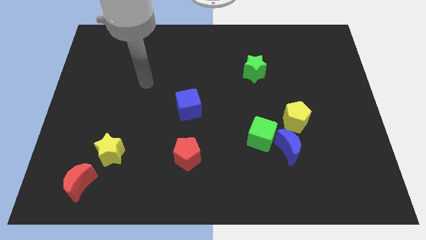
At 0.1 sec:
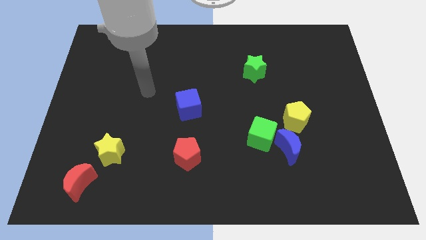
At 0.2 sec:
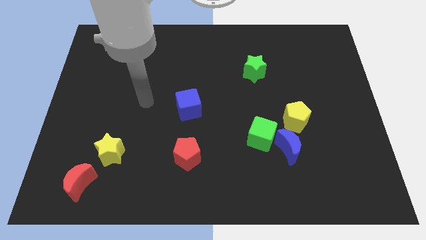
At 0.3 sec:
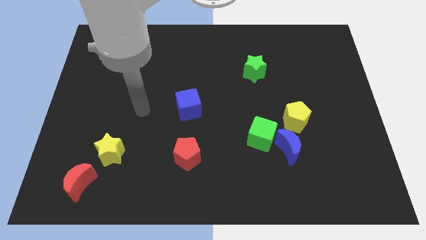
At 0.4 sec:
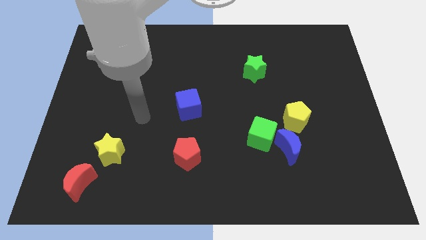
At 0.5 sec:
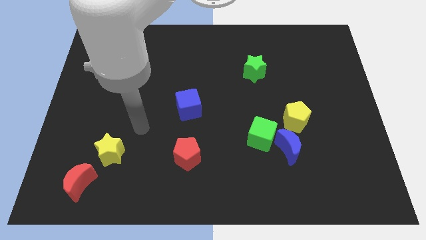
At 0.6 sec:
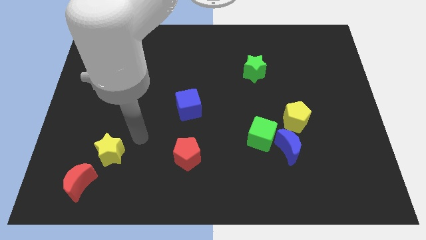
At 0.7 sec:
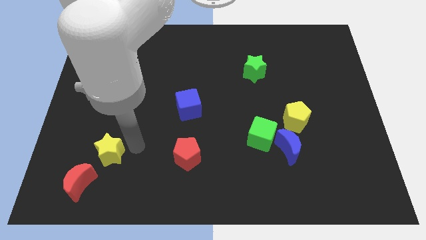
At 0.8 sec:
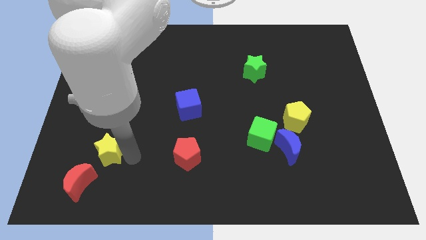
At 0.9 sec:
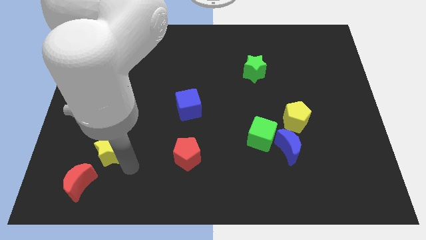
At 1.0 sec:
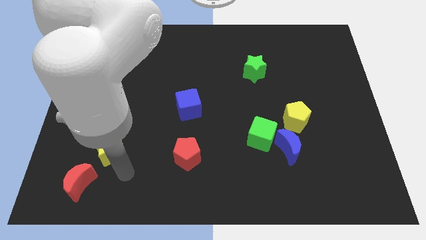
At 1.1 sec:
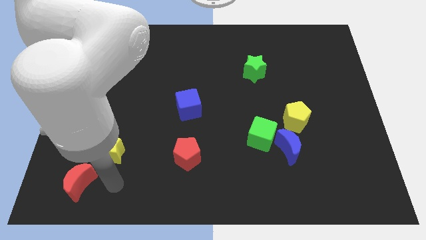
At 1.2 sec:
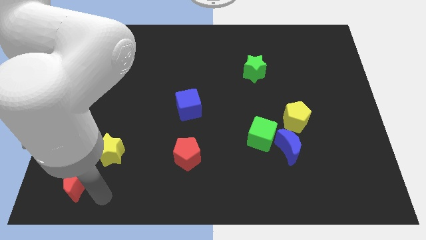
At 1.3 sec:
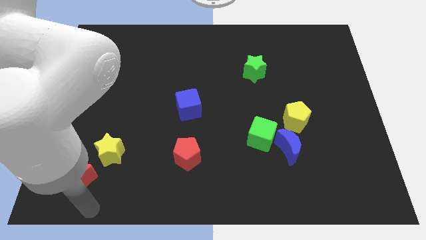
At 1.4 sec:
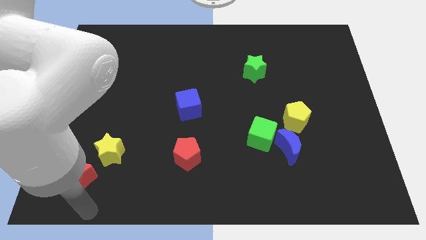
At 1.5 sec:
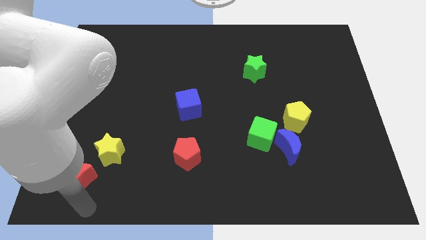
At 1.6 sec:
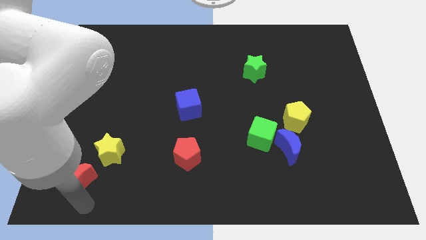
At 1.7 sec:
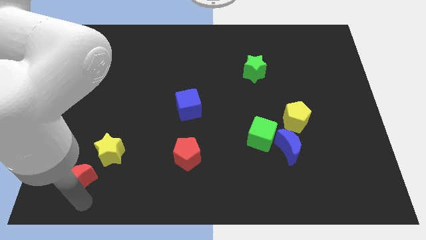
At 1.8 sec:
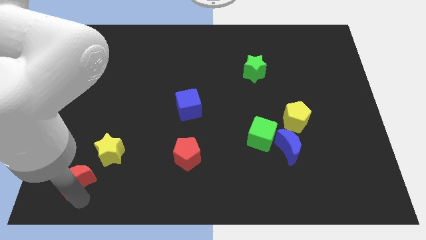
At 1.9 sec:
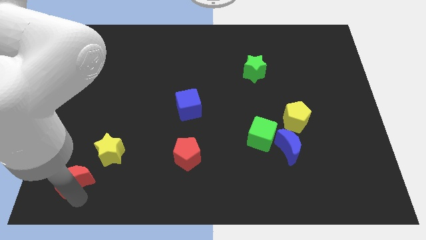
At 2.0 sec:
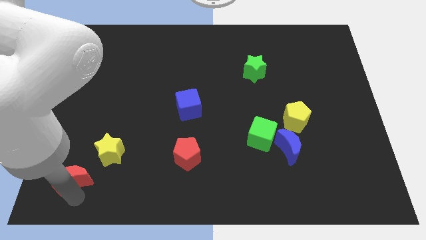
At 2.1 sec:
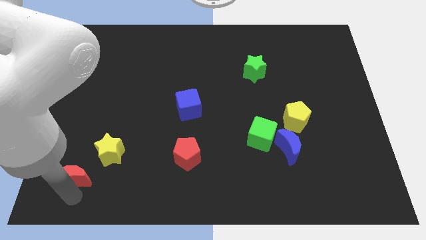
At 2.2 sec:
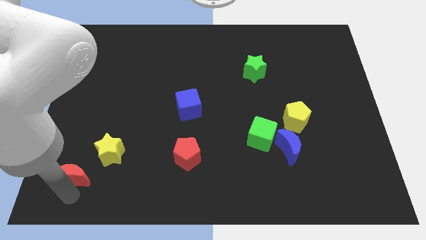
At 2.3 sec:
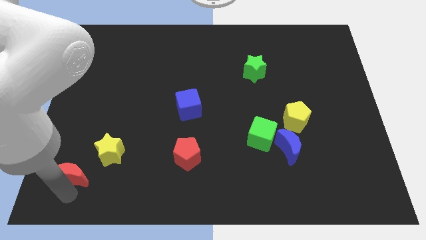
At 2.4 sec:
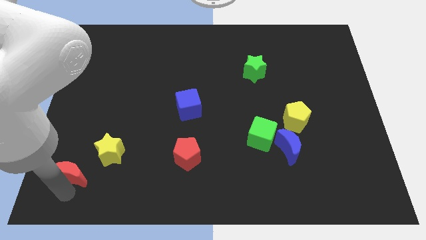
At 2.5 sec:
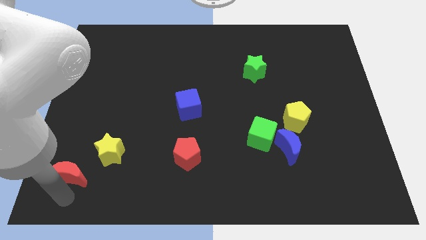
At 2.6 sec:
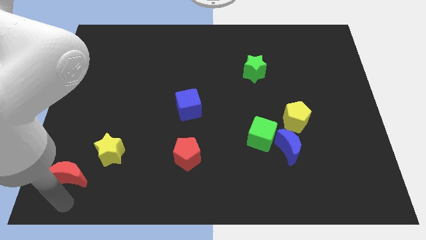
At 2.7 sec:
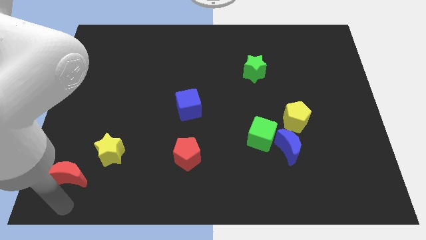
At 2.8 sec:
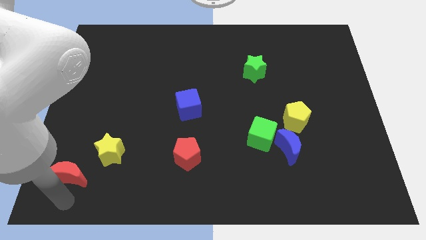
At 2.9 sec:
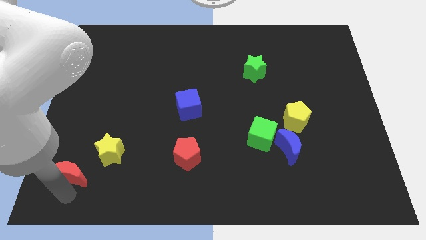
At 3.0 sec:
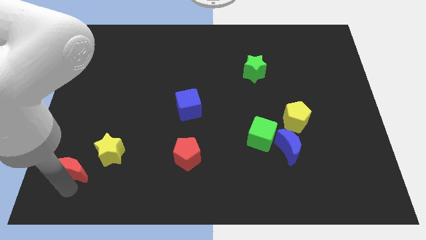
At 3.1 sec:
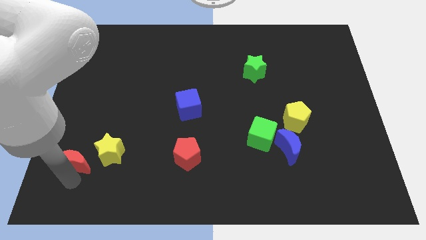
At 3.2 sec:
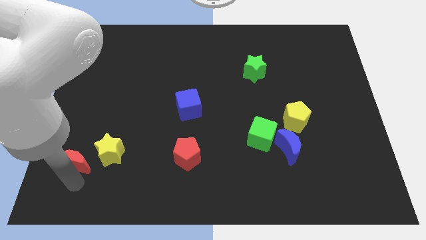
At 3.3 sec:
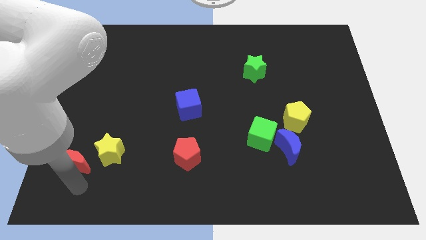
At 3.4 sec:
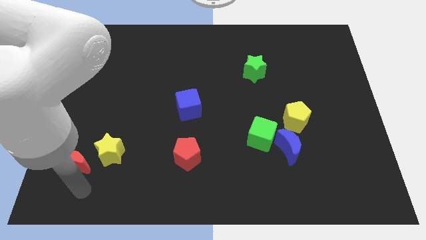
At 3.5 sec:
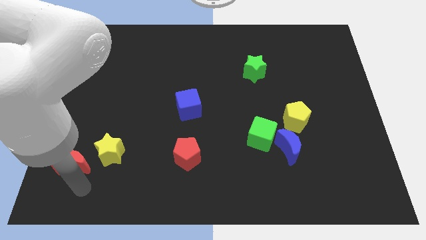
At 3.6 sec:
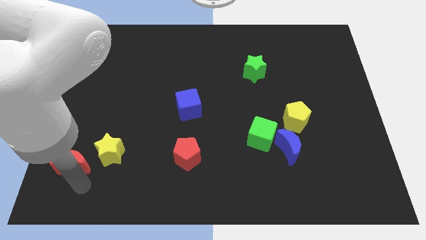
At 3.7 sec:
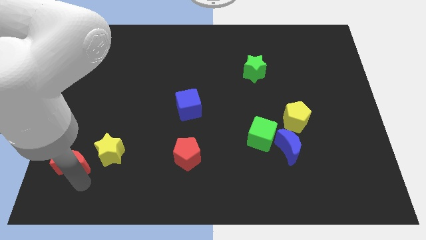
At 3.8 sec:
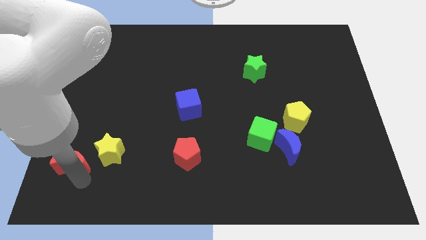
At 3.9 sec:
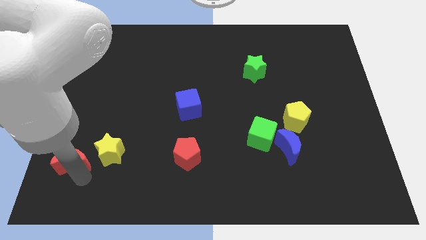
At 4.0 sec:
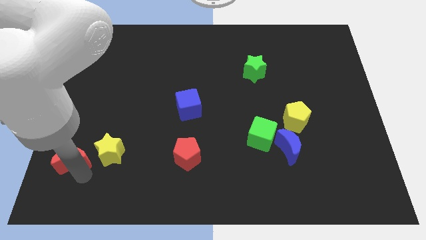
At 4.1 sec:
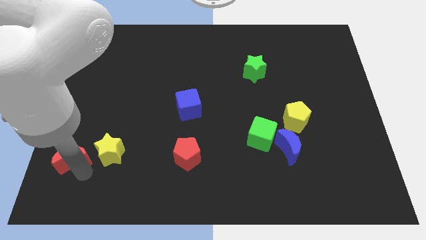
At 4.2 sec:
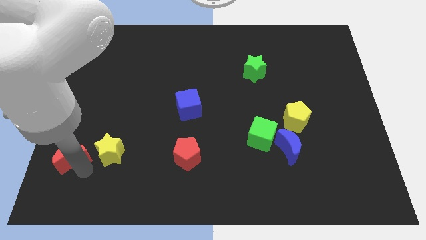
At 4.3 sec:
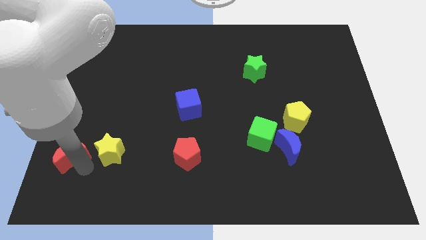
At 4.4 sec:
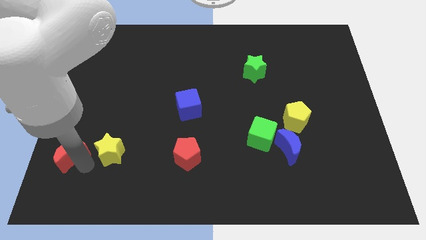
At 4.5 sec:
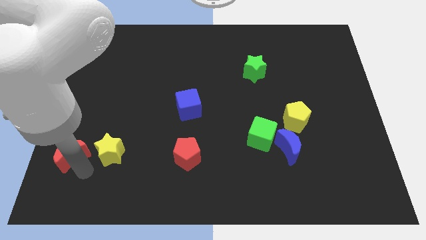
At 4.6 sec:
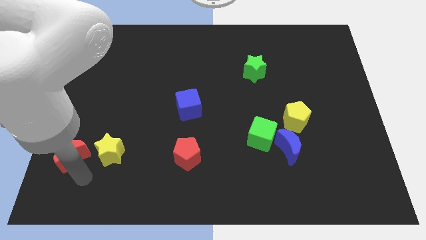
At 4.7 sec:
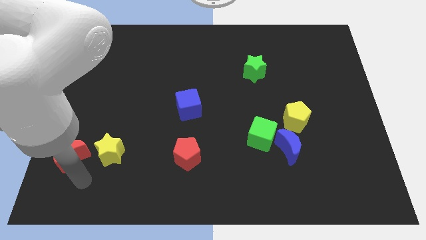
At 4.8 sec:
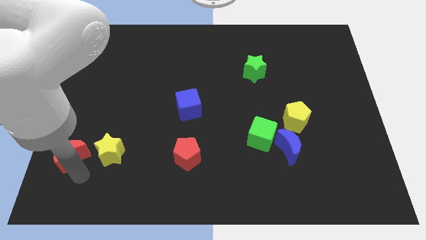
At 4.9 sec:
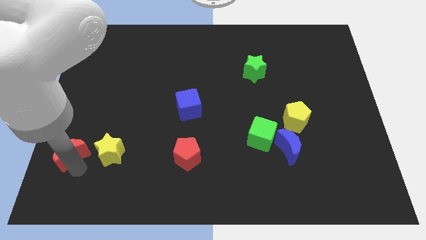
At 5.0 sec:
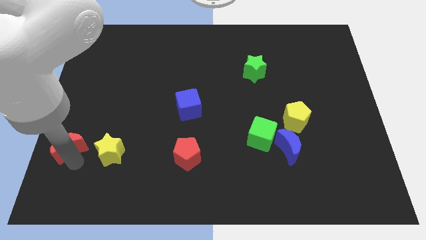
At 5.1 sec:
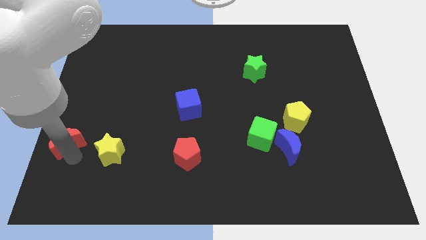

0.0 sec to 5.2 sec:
put the red moon to the left side

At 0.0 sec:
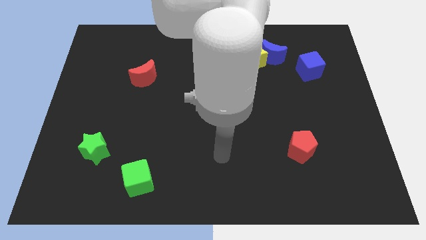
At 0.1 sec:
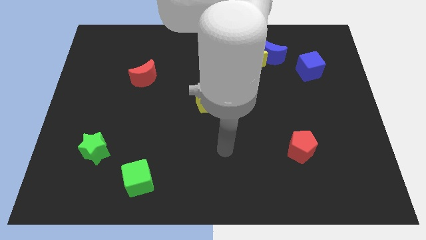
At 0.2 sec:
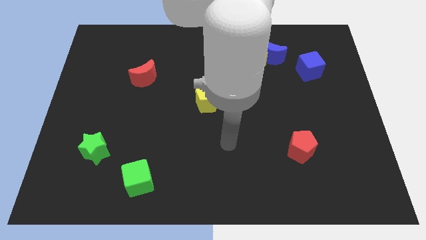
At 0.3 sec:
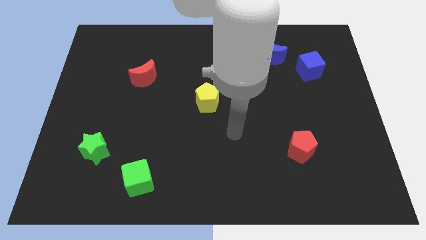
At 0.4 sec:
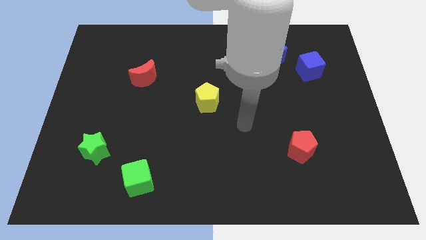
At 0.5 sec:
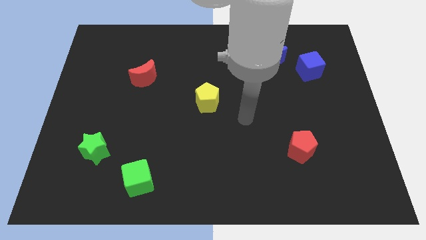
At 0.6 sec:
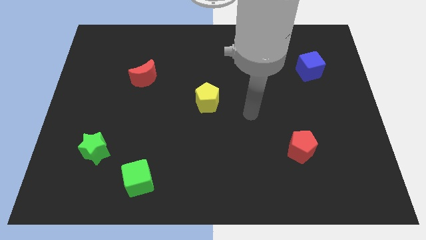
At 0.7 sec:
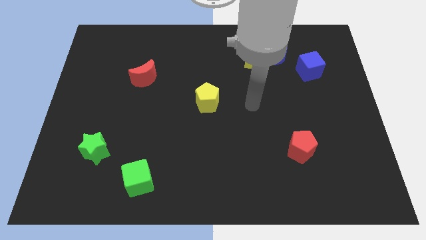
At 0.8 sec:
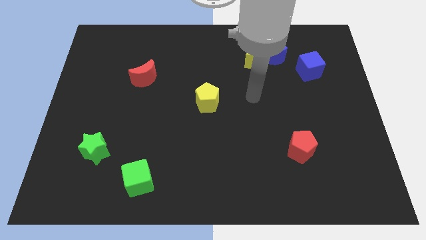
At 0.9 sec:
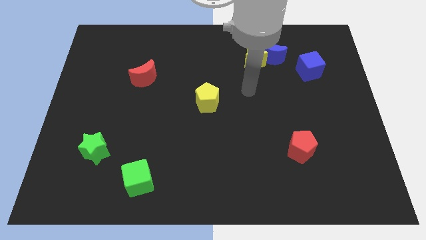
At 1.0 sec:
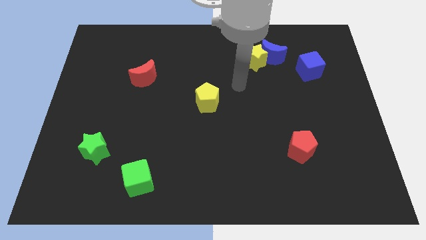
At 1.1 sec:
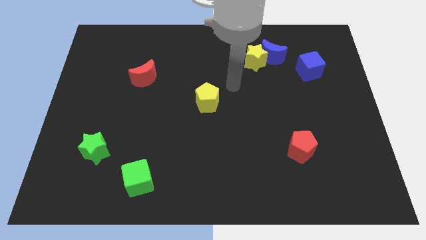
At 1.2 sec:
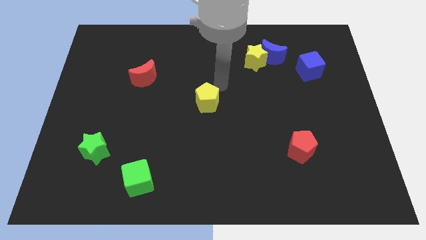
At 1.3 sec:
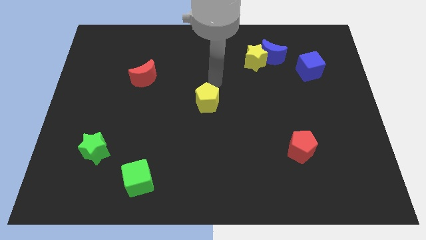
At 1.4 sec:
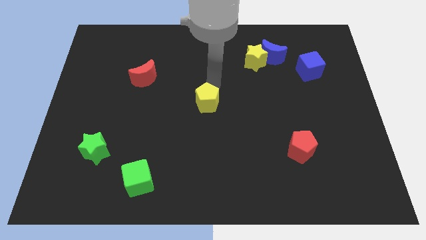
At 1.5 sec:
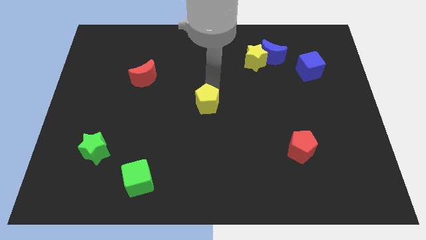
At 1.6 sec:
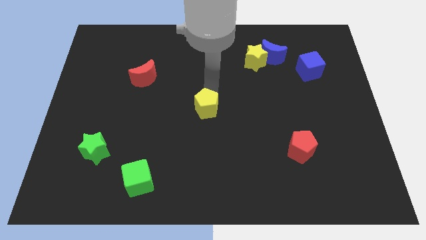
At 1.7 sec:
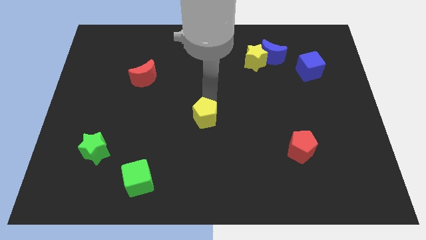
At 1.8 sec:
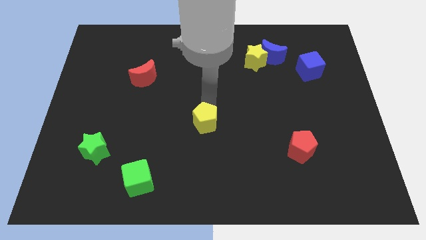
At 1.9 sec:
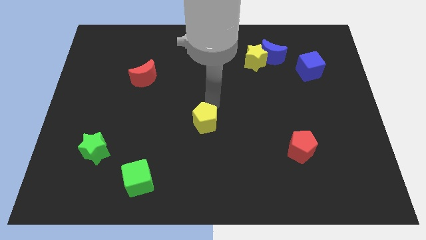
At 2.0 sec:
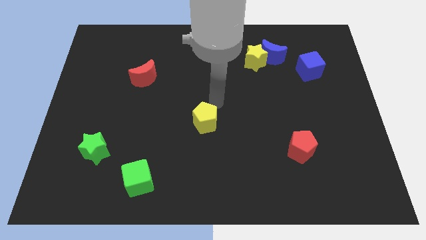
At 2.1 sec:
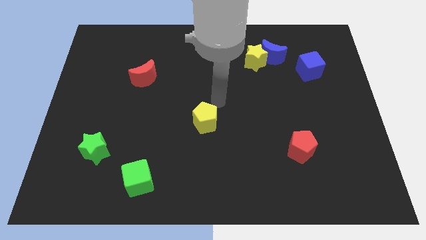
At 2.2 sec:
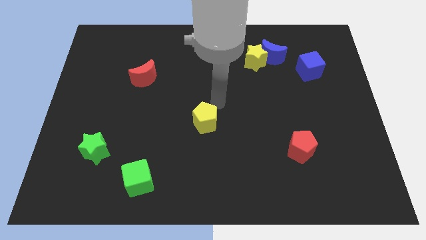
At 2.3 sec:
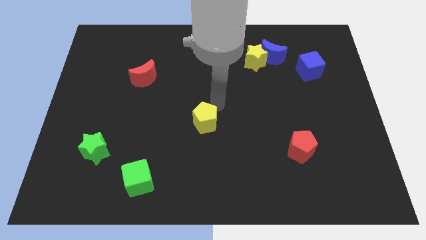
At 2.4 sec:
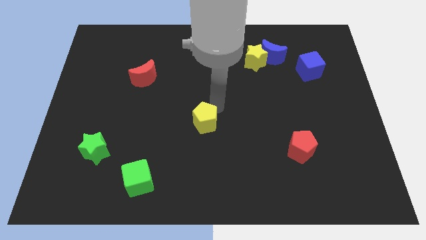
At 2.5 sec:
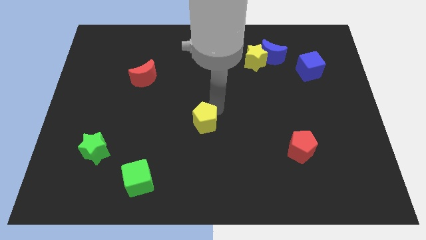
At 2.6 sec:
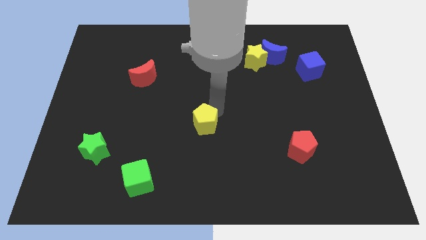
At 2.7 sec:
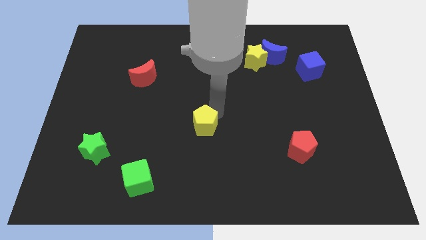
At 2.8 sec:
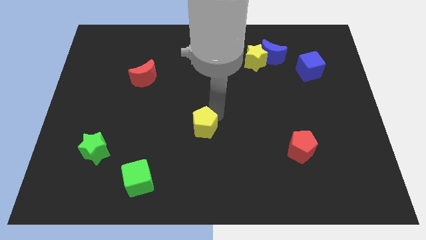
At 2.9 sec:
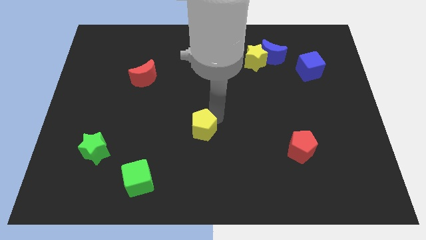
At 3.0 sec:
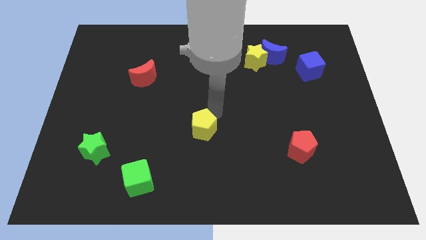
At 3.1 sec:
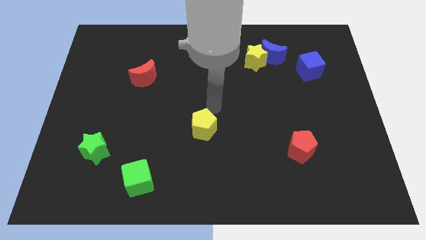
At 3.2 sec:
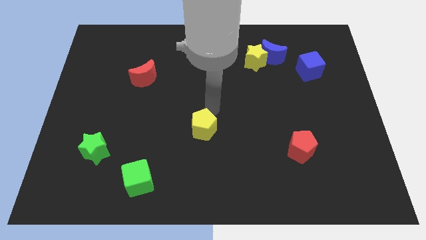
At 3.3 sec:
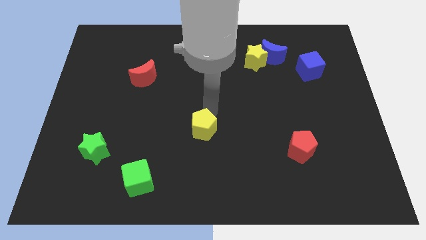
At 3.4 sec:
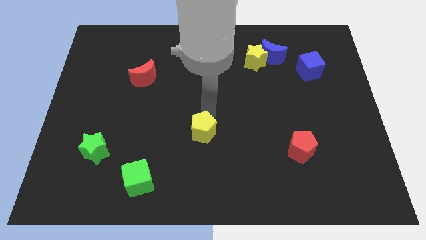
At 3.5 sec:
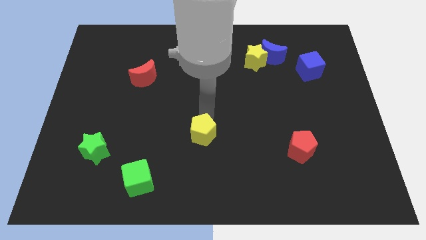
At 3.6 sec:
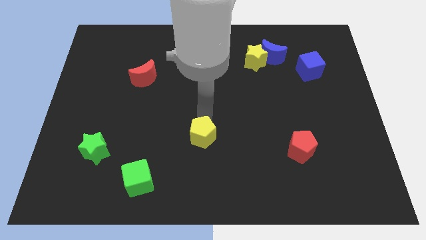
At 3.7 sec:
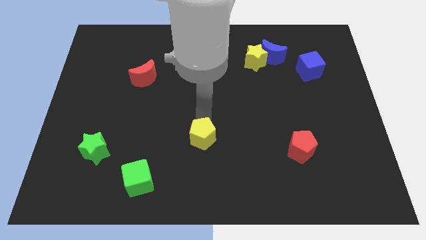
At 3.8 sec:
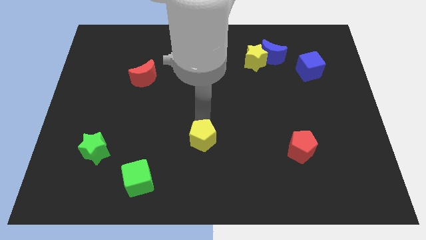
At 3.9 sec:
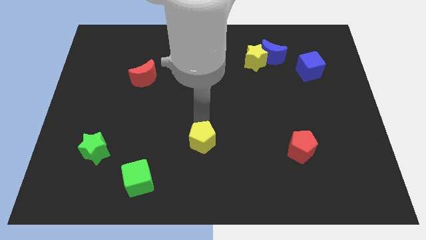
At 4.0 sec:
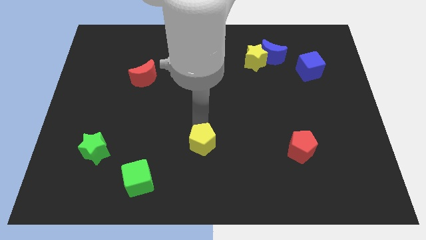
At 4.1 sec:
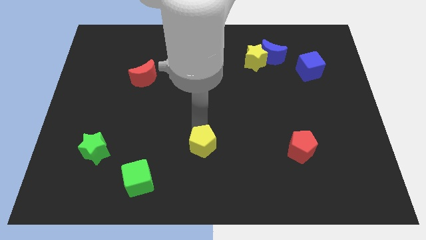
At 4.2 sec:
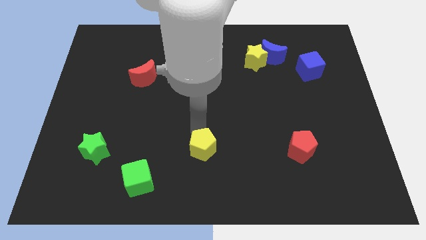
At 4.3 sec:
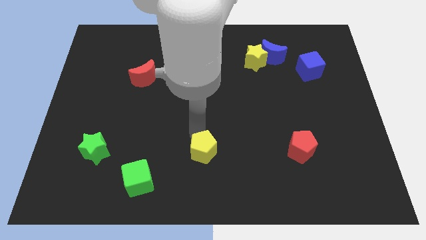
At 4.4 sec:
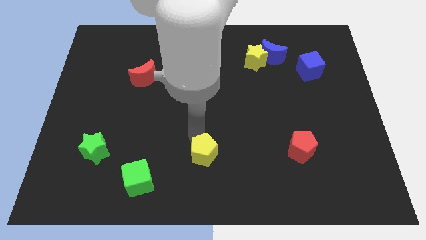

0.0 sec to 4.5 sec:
move the yellow pentagon to the bottom
